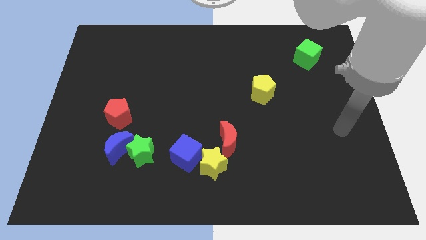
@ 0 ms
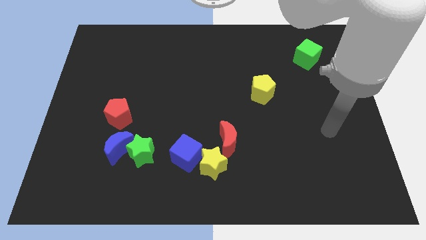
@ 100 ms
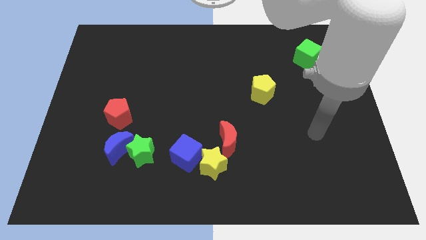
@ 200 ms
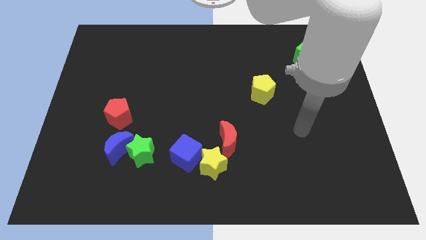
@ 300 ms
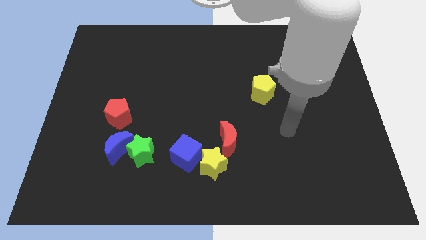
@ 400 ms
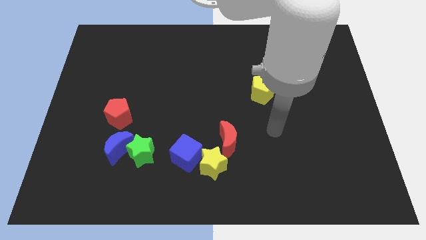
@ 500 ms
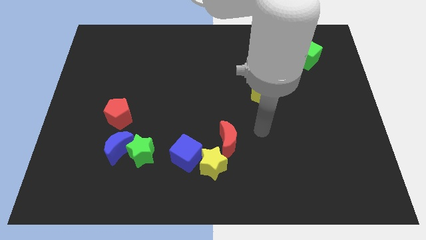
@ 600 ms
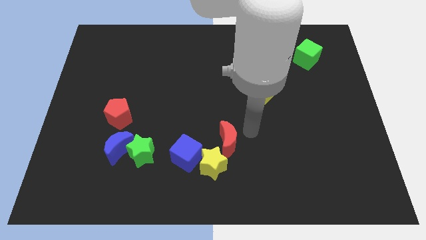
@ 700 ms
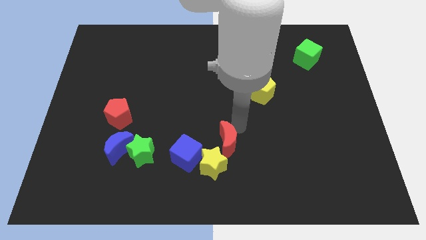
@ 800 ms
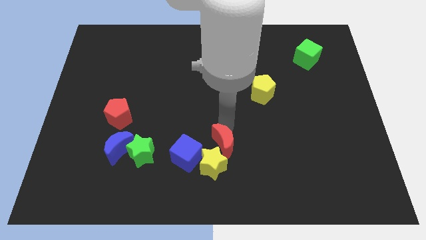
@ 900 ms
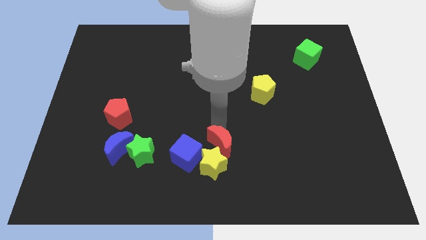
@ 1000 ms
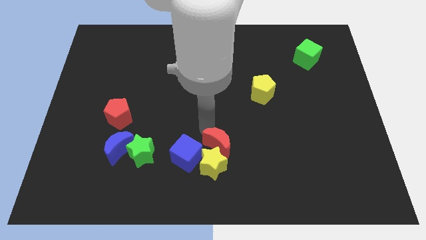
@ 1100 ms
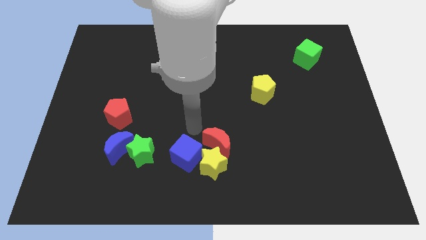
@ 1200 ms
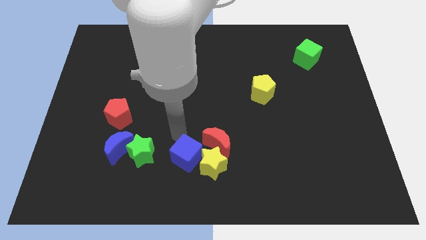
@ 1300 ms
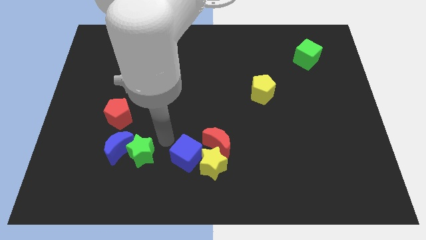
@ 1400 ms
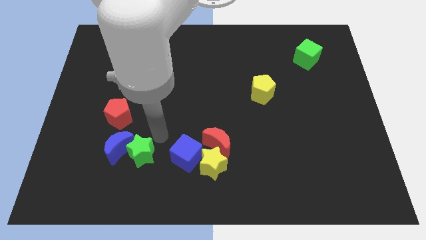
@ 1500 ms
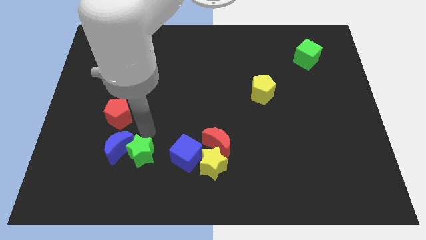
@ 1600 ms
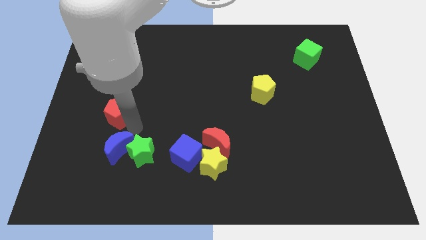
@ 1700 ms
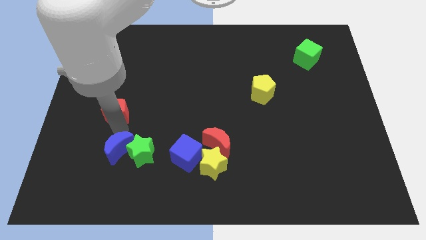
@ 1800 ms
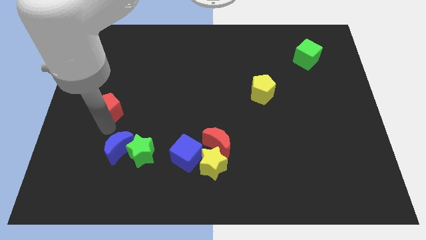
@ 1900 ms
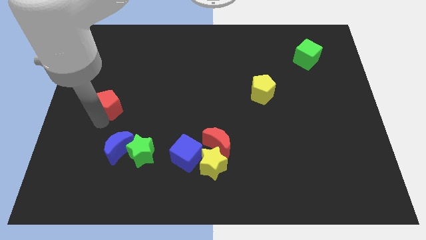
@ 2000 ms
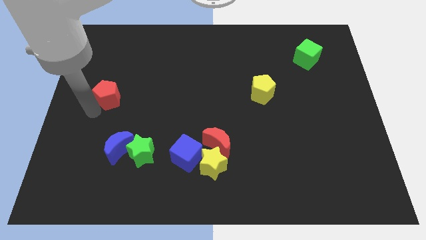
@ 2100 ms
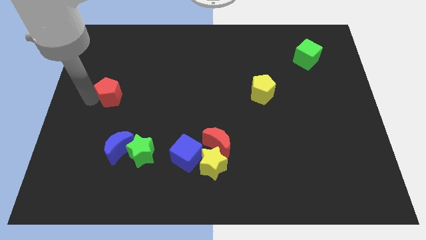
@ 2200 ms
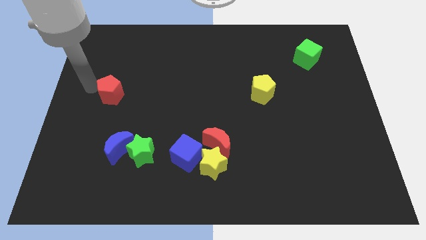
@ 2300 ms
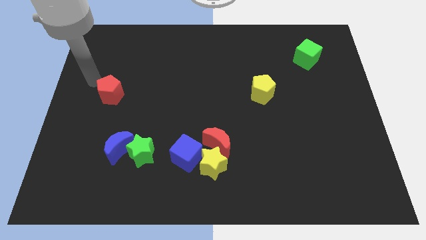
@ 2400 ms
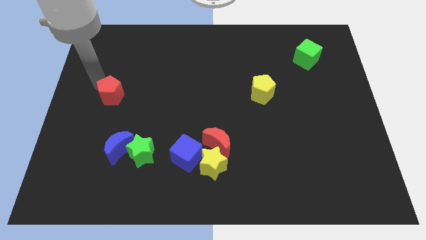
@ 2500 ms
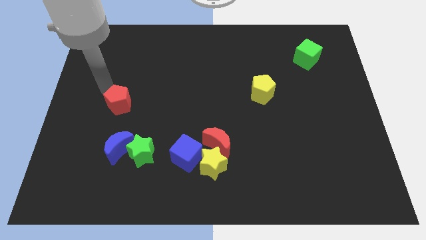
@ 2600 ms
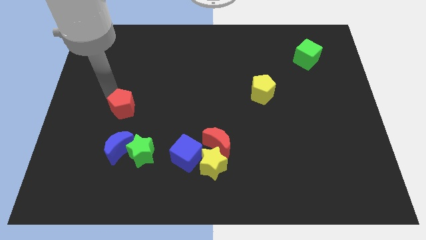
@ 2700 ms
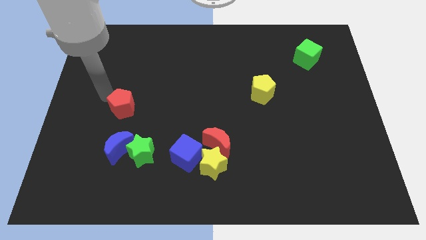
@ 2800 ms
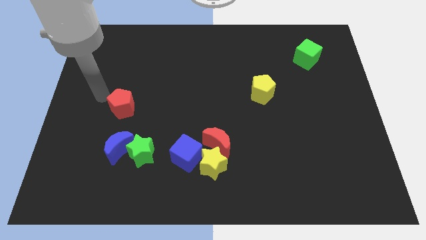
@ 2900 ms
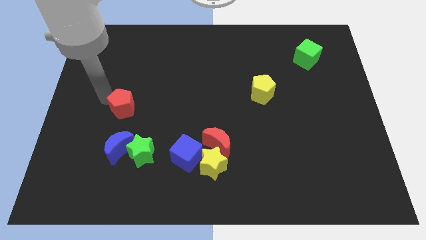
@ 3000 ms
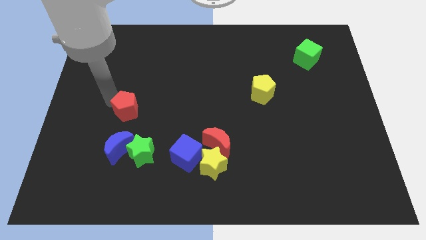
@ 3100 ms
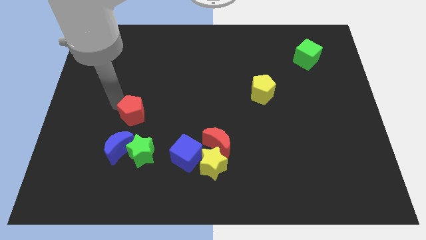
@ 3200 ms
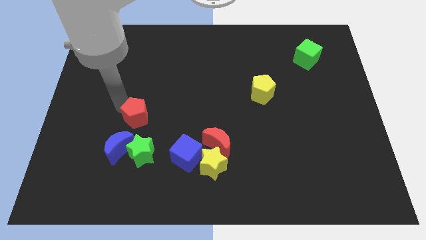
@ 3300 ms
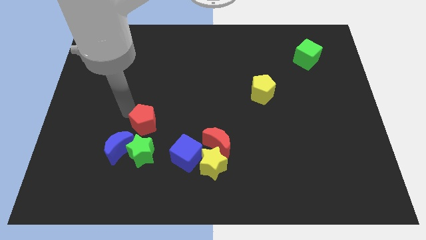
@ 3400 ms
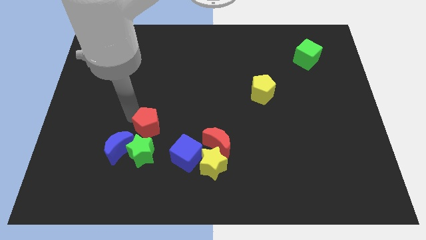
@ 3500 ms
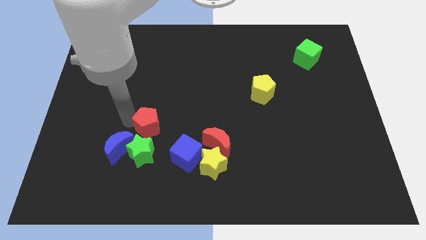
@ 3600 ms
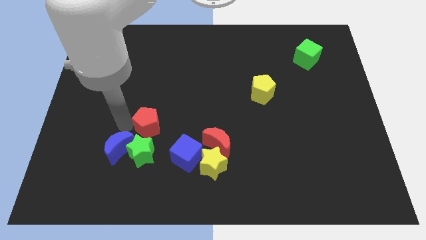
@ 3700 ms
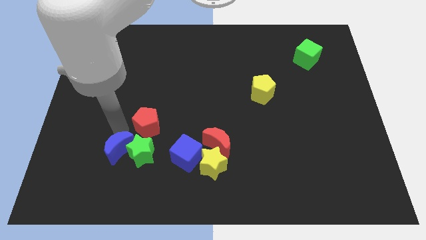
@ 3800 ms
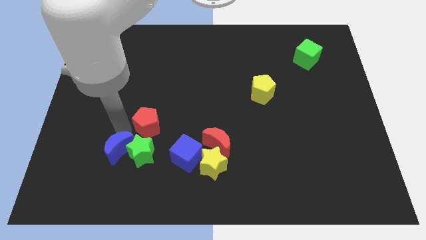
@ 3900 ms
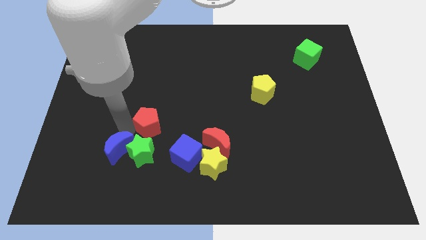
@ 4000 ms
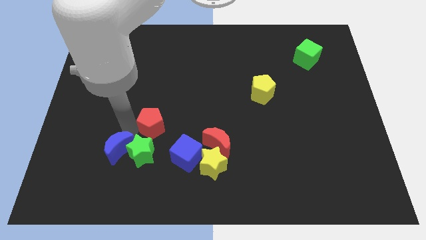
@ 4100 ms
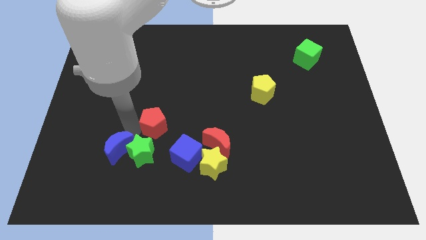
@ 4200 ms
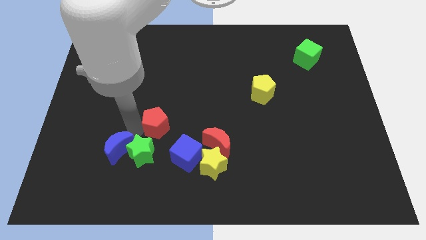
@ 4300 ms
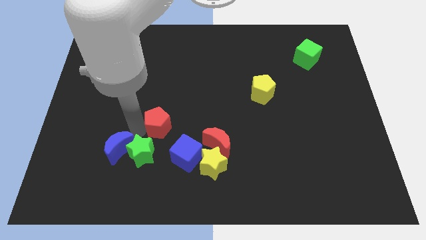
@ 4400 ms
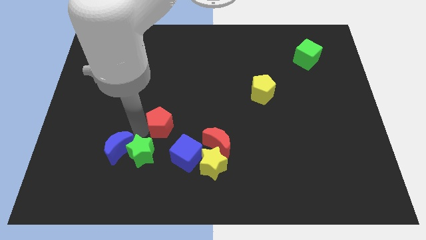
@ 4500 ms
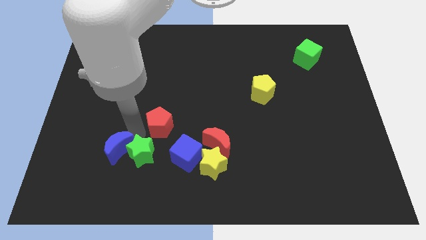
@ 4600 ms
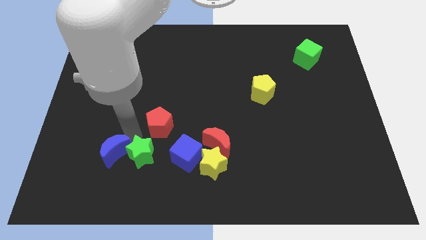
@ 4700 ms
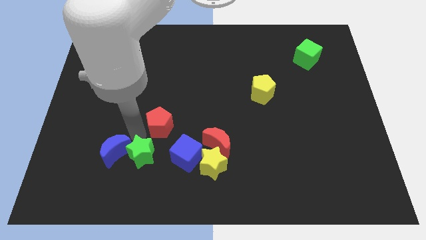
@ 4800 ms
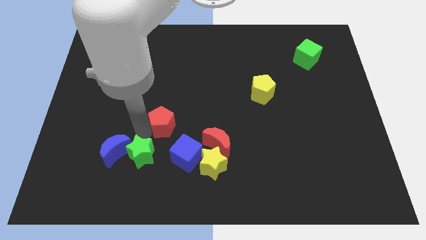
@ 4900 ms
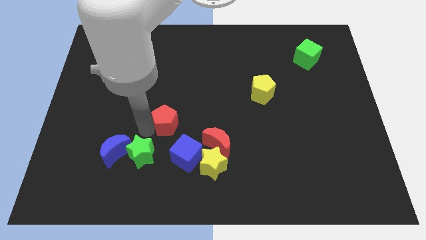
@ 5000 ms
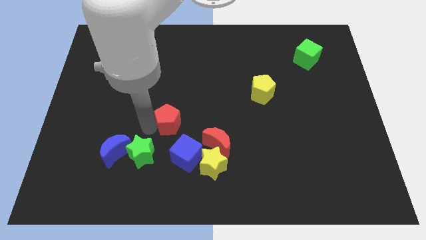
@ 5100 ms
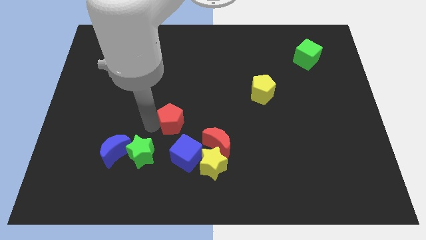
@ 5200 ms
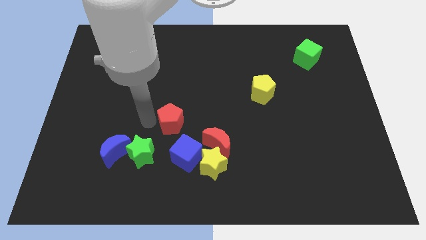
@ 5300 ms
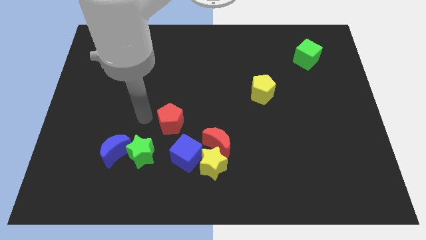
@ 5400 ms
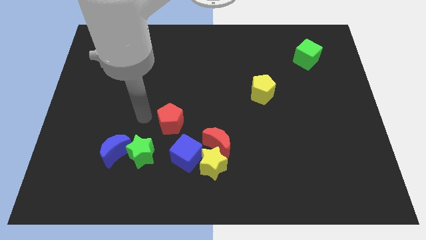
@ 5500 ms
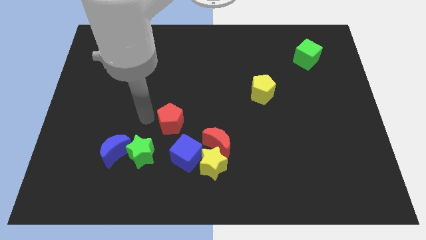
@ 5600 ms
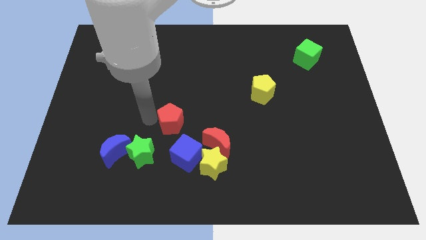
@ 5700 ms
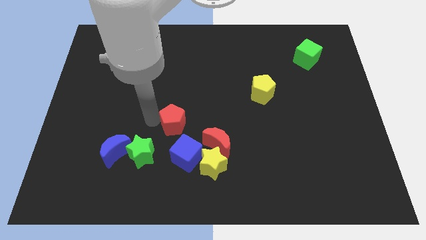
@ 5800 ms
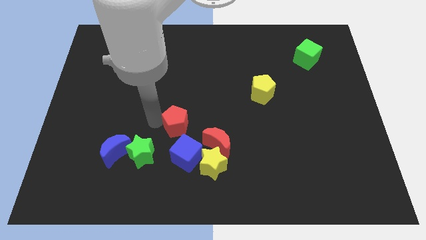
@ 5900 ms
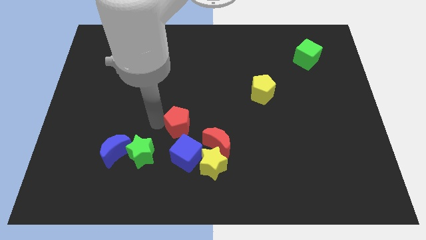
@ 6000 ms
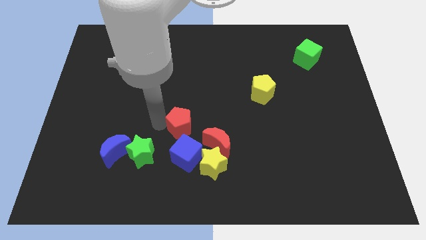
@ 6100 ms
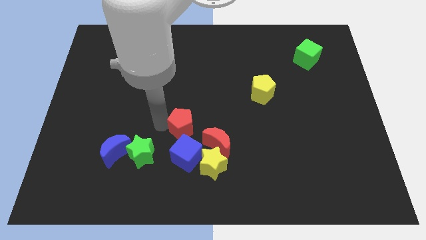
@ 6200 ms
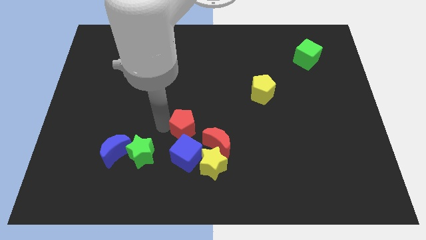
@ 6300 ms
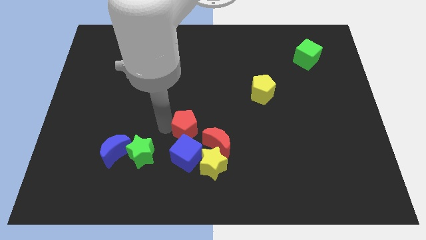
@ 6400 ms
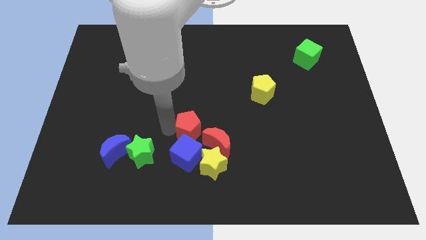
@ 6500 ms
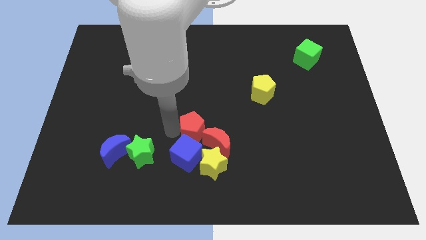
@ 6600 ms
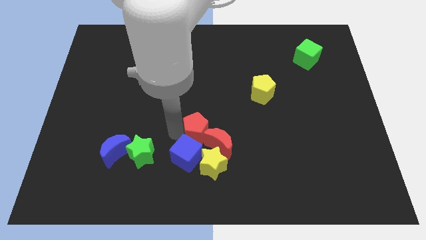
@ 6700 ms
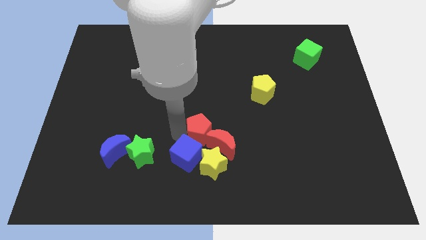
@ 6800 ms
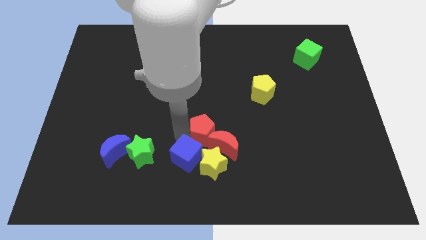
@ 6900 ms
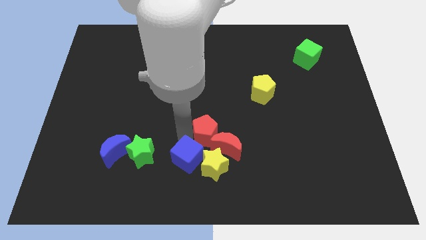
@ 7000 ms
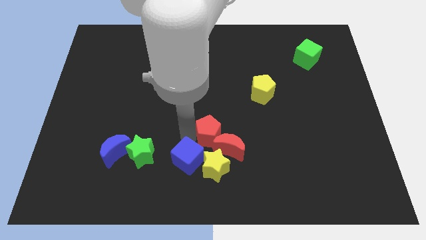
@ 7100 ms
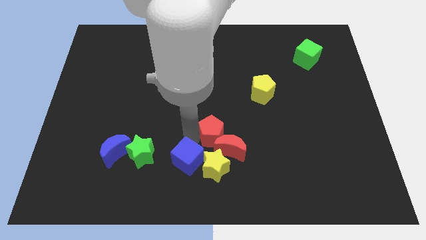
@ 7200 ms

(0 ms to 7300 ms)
push the red pentagon to the right

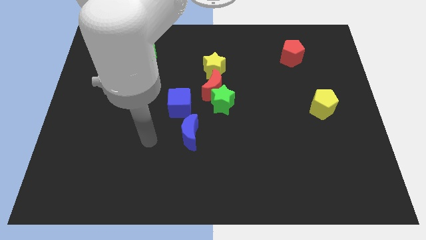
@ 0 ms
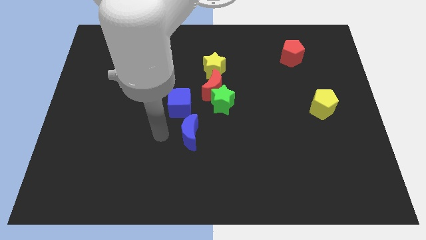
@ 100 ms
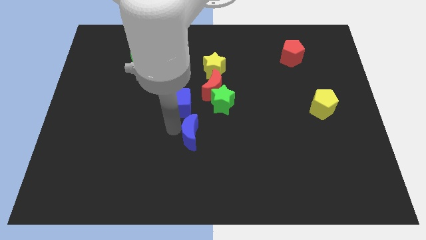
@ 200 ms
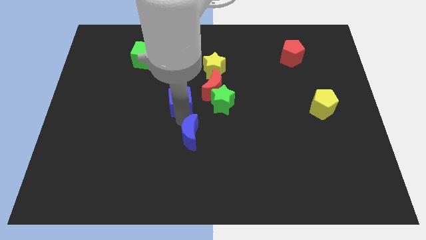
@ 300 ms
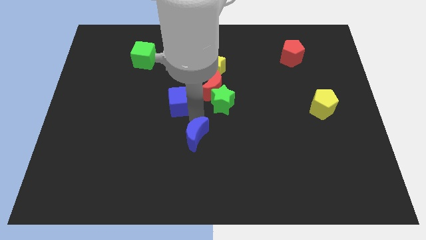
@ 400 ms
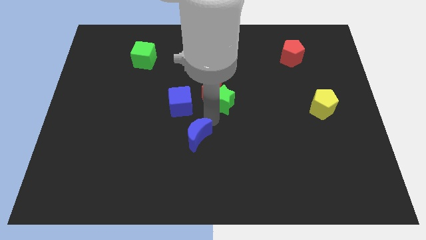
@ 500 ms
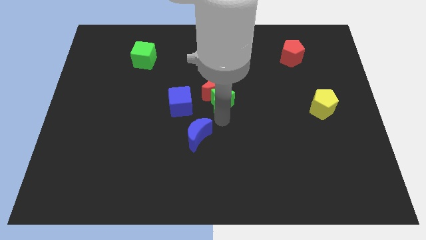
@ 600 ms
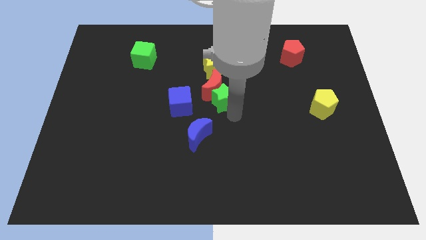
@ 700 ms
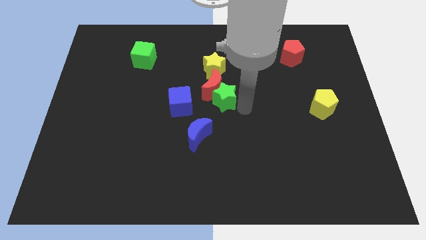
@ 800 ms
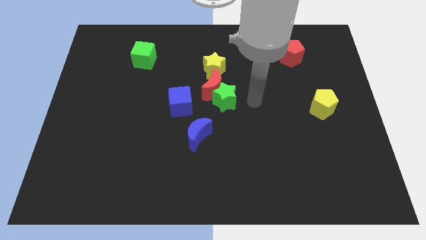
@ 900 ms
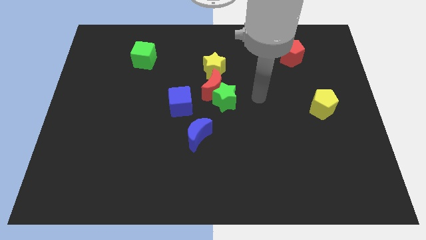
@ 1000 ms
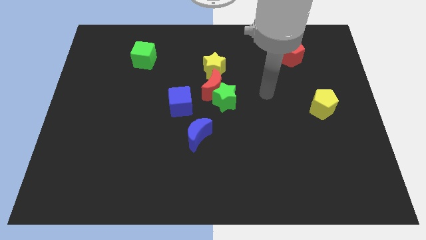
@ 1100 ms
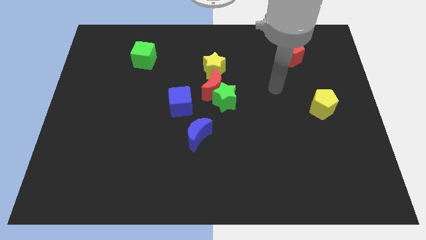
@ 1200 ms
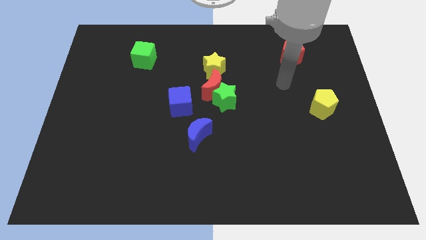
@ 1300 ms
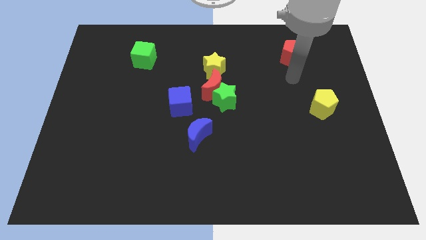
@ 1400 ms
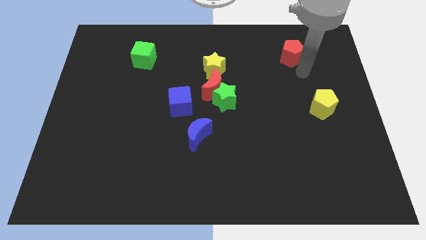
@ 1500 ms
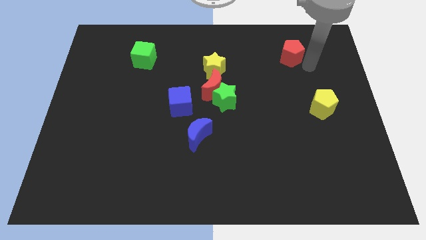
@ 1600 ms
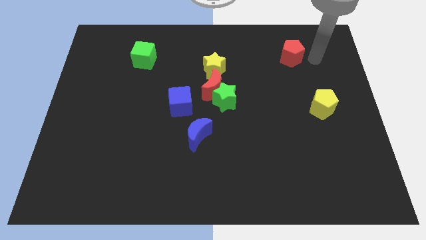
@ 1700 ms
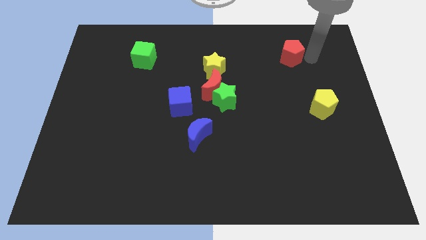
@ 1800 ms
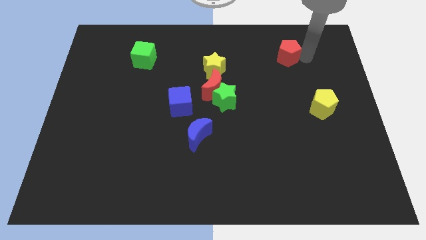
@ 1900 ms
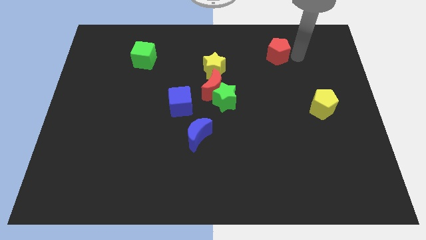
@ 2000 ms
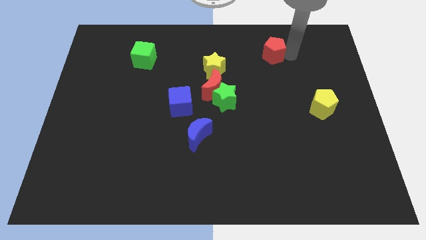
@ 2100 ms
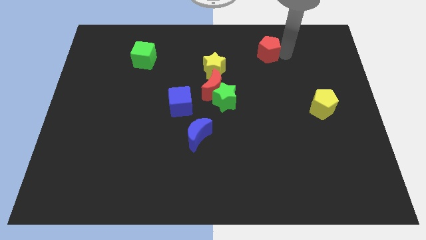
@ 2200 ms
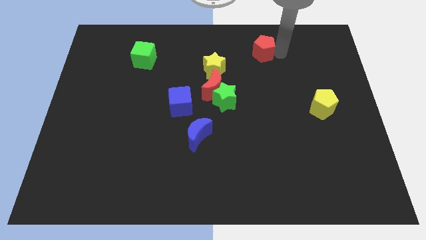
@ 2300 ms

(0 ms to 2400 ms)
slightly move the red pentagon left
